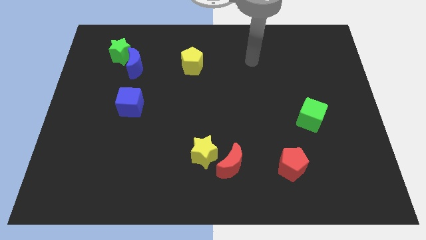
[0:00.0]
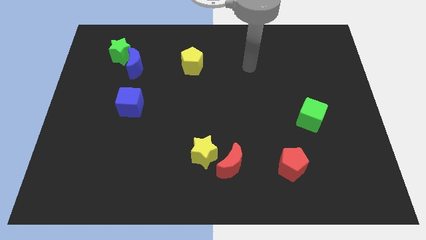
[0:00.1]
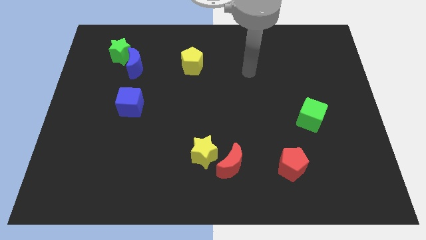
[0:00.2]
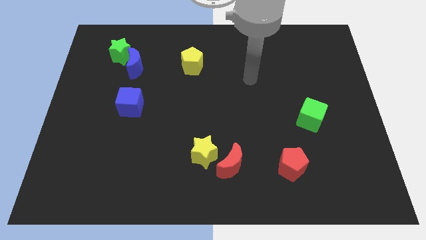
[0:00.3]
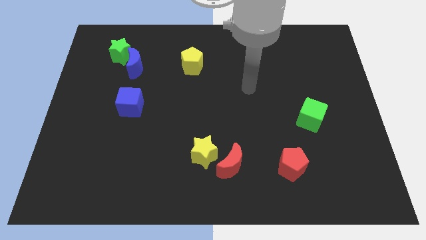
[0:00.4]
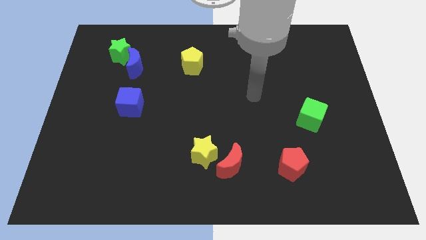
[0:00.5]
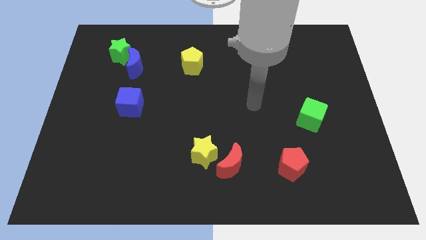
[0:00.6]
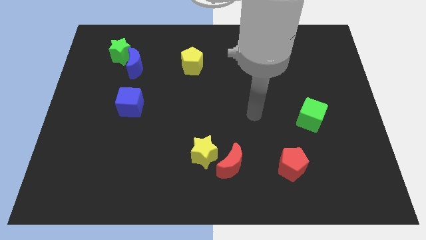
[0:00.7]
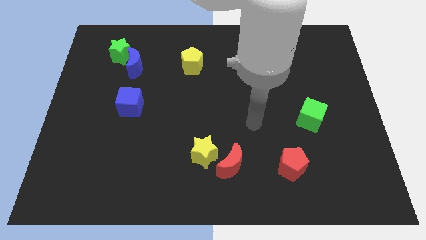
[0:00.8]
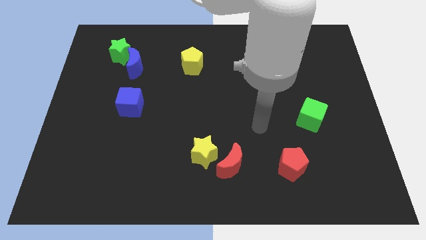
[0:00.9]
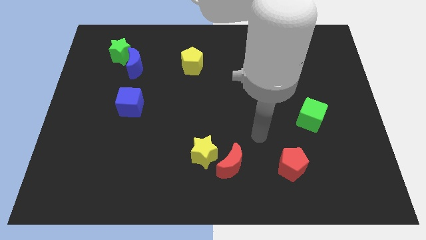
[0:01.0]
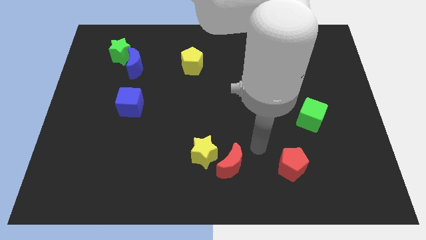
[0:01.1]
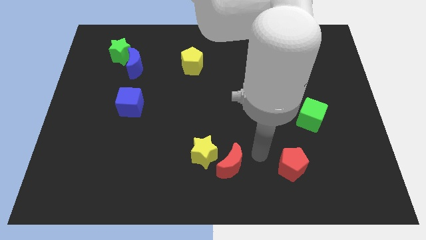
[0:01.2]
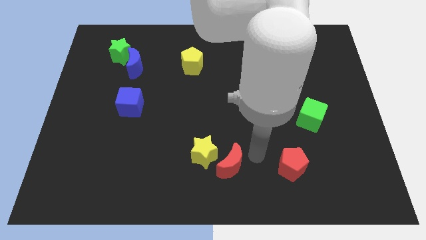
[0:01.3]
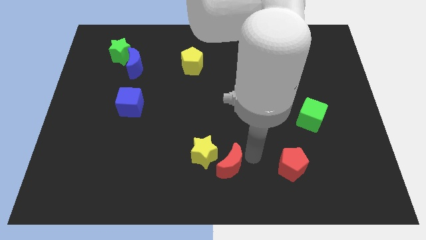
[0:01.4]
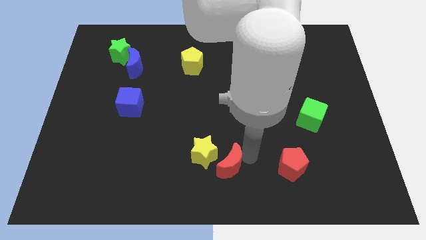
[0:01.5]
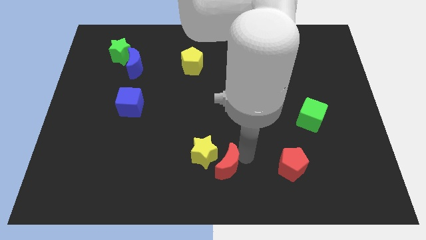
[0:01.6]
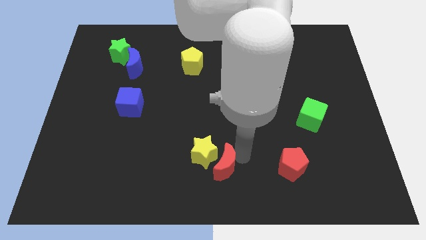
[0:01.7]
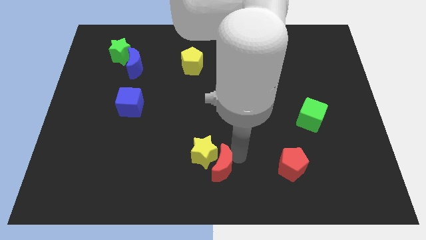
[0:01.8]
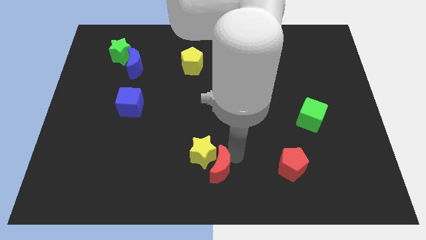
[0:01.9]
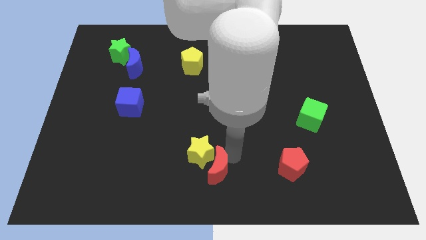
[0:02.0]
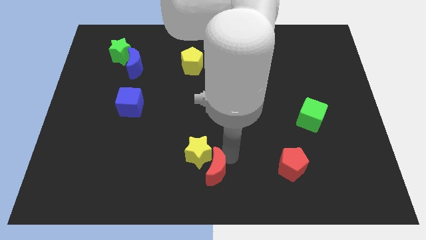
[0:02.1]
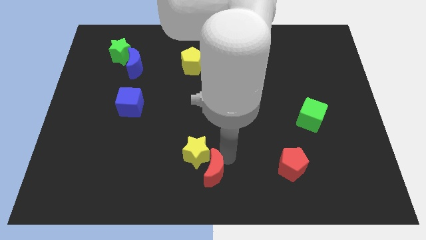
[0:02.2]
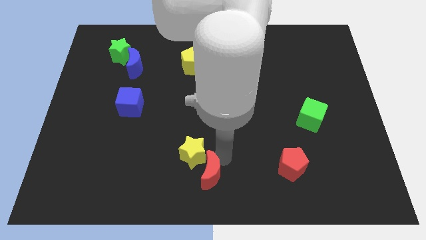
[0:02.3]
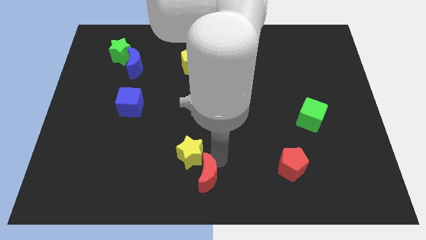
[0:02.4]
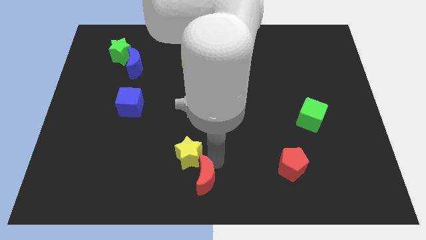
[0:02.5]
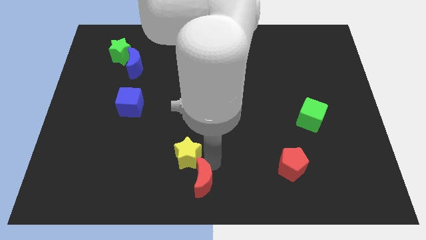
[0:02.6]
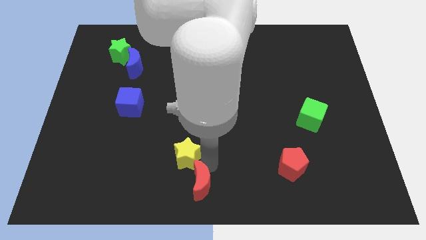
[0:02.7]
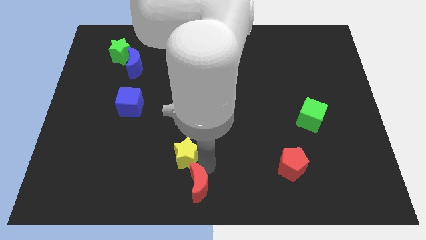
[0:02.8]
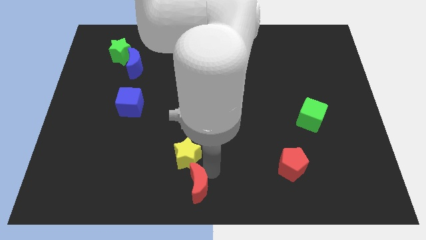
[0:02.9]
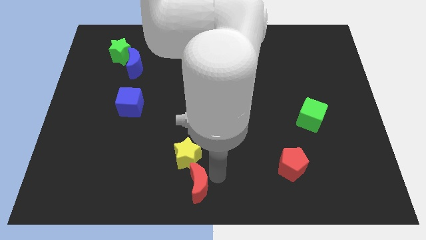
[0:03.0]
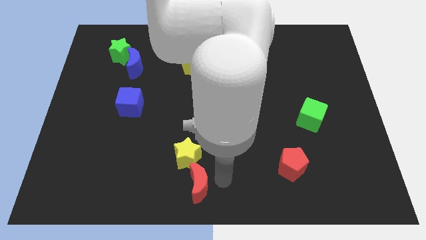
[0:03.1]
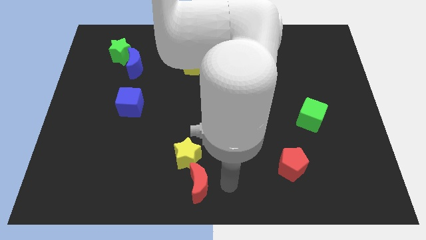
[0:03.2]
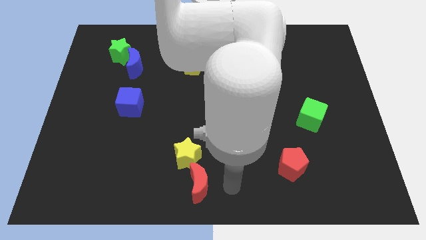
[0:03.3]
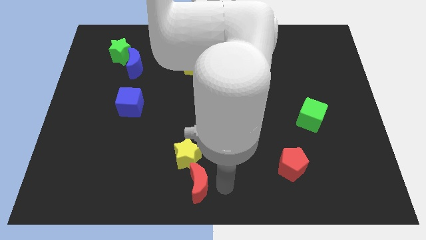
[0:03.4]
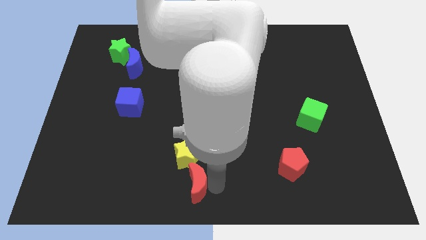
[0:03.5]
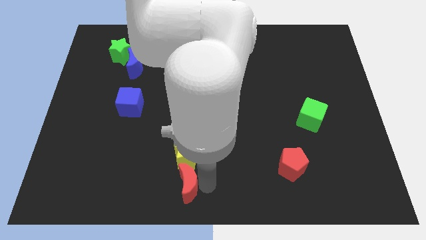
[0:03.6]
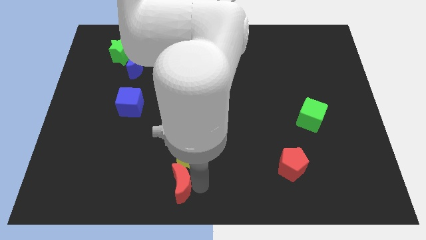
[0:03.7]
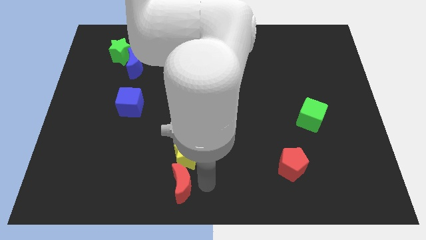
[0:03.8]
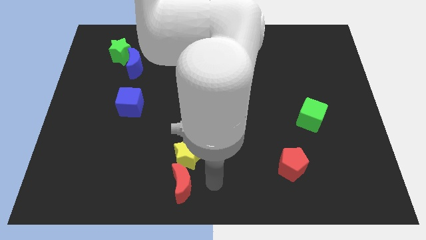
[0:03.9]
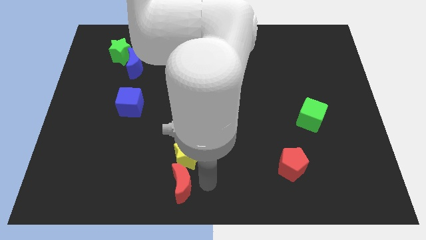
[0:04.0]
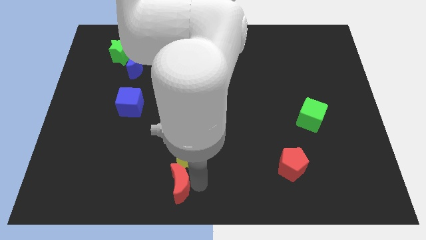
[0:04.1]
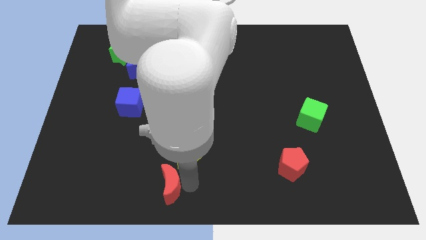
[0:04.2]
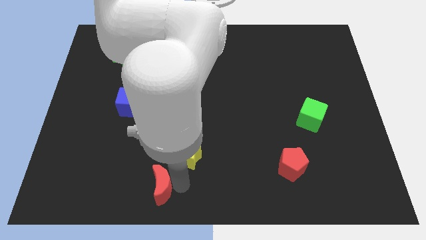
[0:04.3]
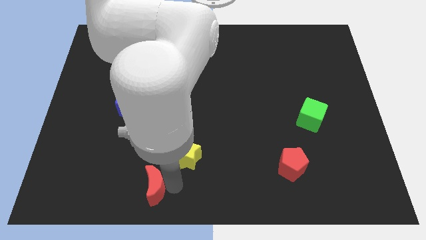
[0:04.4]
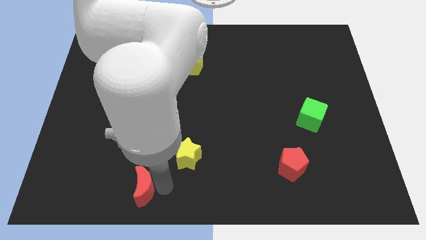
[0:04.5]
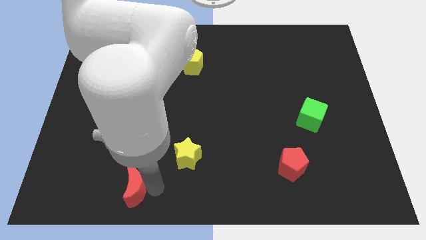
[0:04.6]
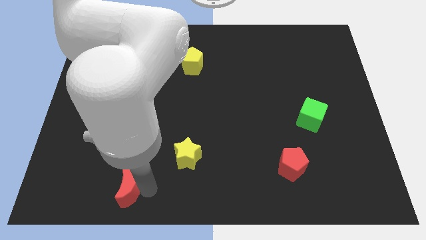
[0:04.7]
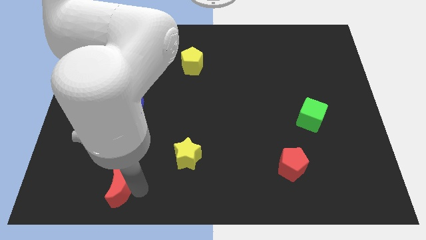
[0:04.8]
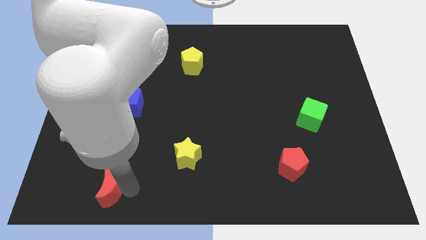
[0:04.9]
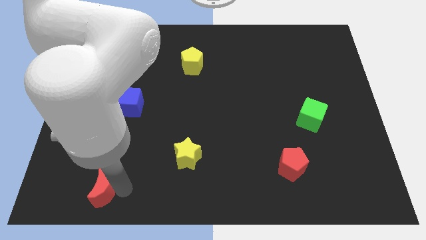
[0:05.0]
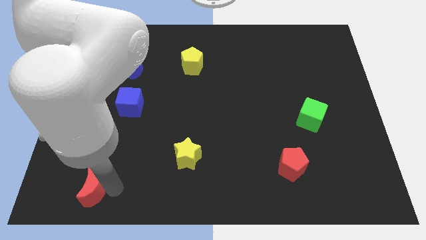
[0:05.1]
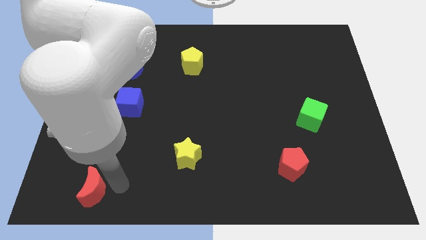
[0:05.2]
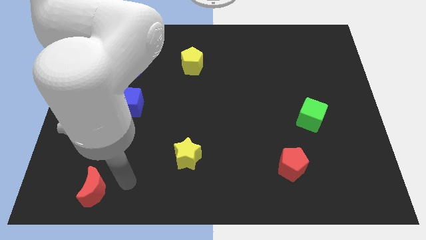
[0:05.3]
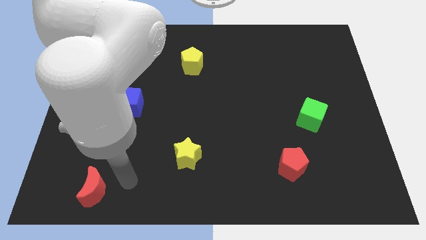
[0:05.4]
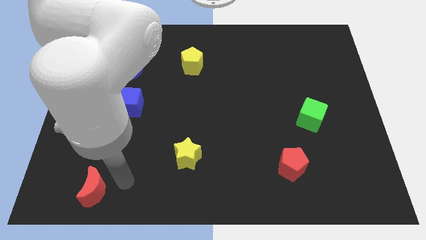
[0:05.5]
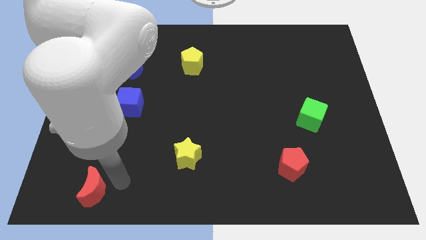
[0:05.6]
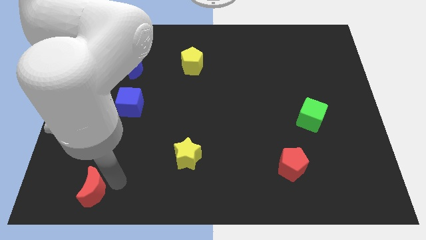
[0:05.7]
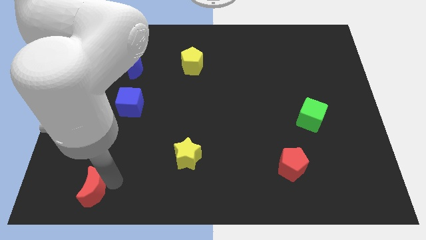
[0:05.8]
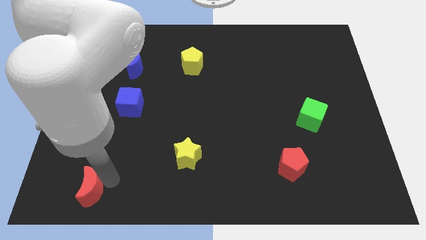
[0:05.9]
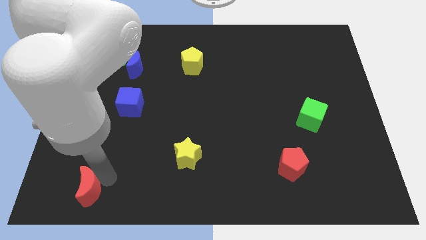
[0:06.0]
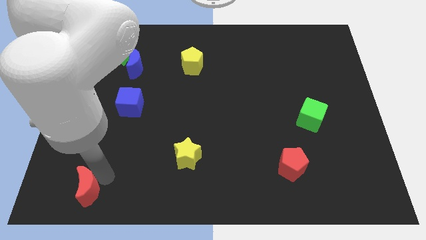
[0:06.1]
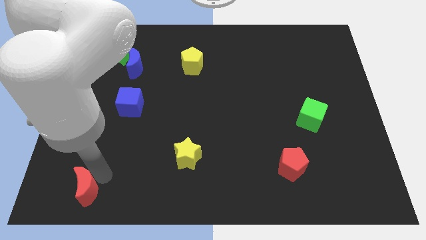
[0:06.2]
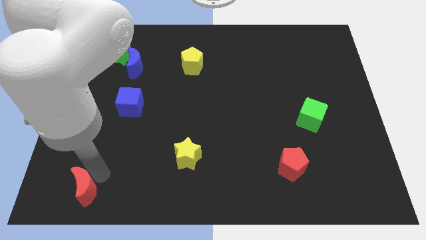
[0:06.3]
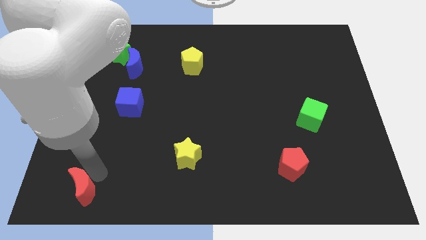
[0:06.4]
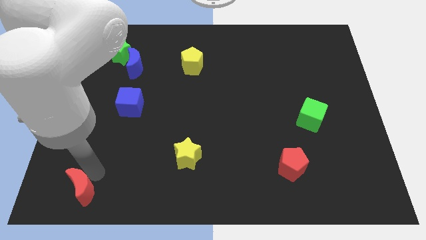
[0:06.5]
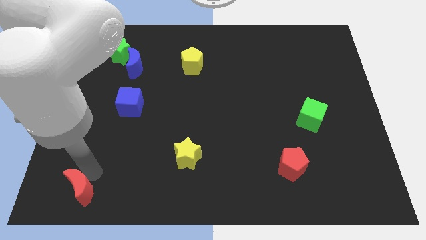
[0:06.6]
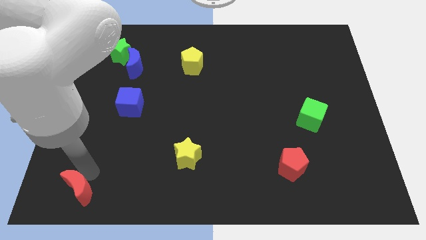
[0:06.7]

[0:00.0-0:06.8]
put the red moon to the bottom left
